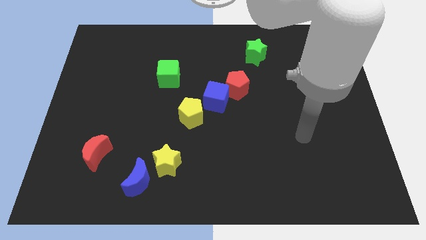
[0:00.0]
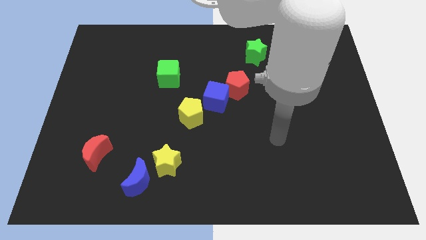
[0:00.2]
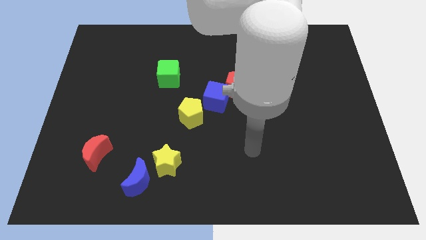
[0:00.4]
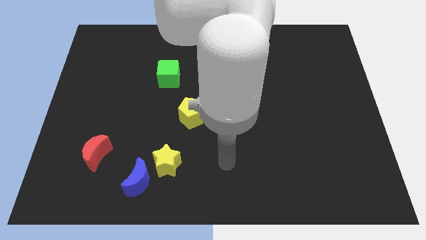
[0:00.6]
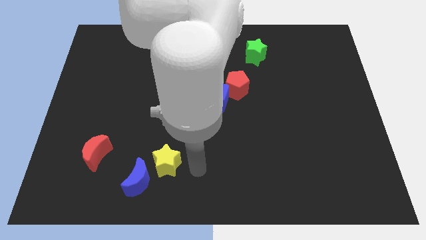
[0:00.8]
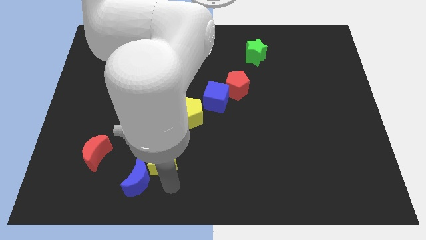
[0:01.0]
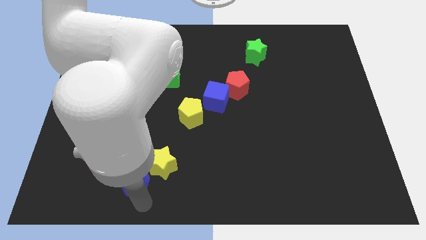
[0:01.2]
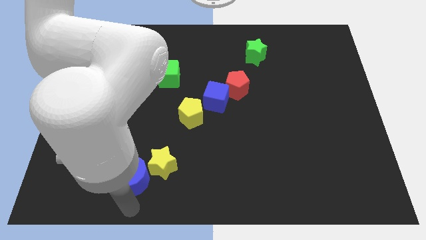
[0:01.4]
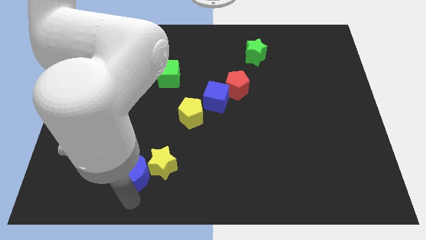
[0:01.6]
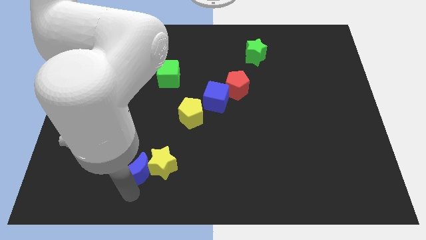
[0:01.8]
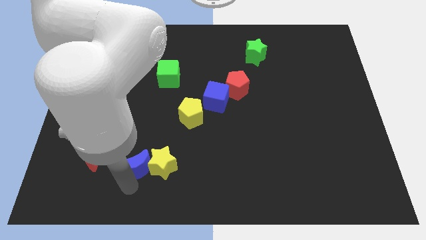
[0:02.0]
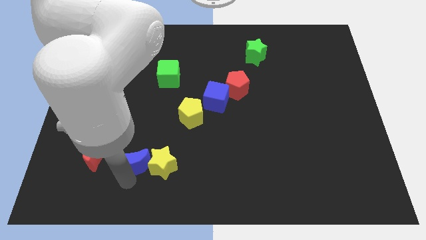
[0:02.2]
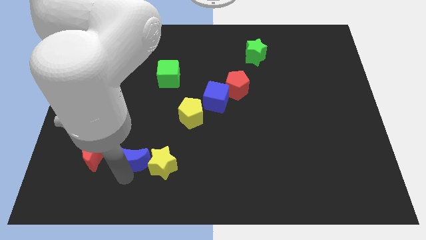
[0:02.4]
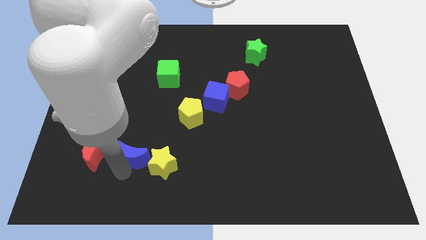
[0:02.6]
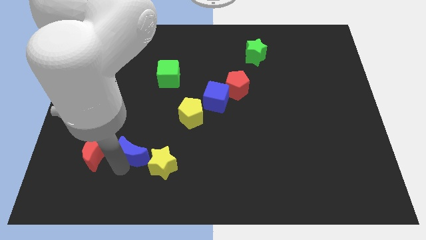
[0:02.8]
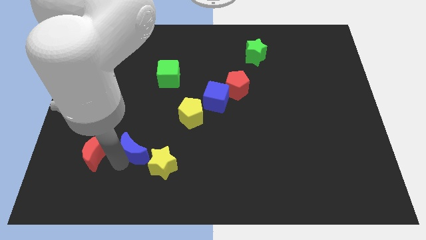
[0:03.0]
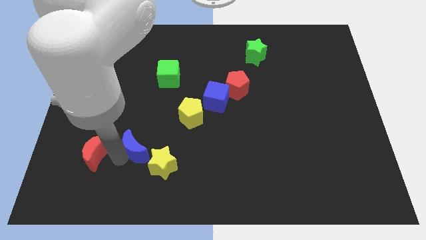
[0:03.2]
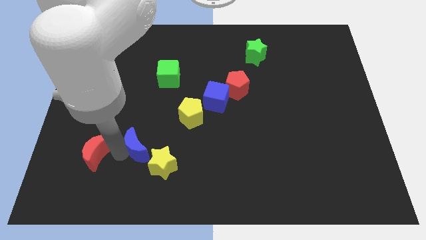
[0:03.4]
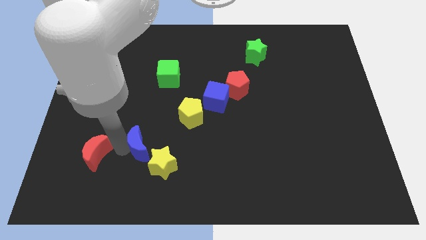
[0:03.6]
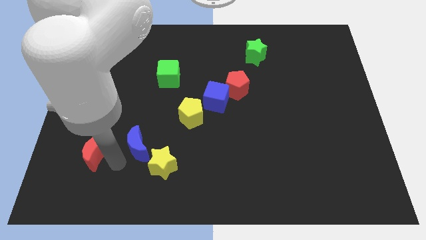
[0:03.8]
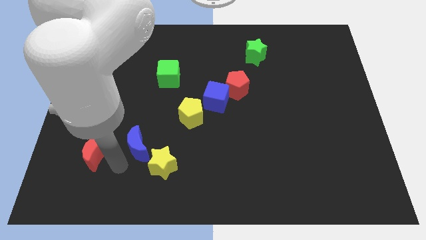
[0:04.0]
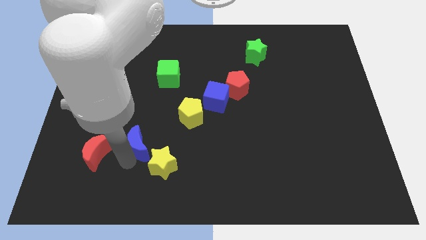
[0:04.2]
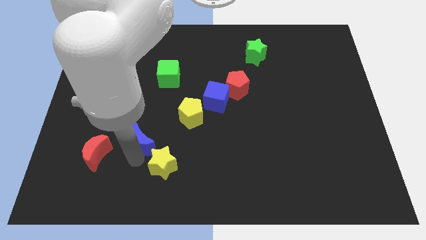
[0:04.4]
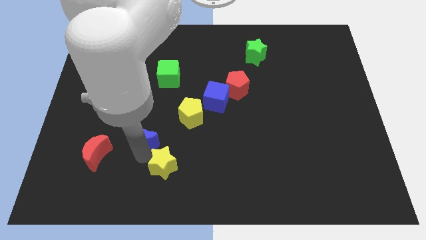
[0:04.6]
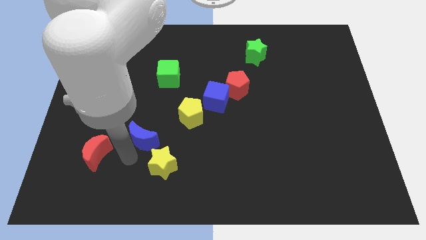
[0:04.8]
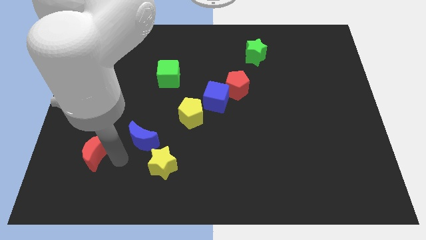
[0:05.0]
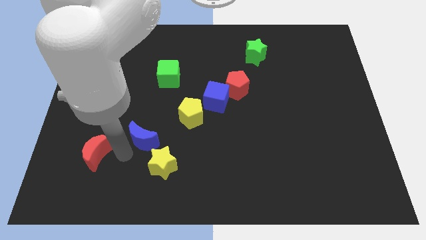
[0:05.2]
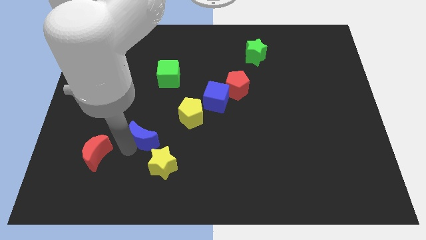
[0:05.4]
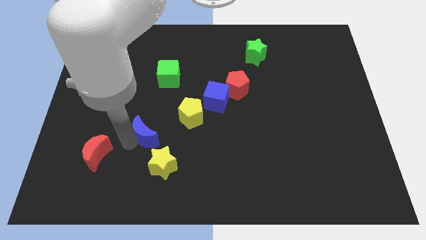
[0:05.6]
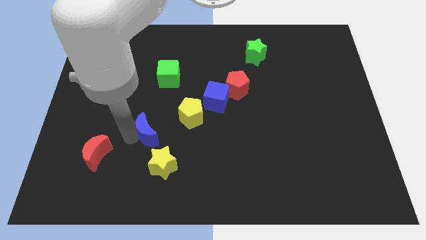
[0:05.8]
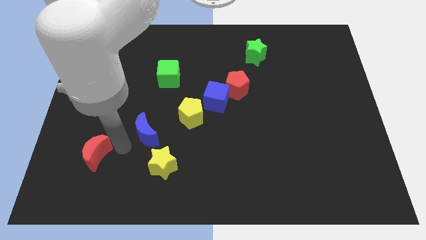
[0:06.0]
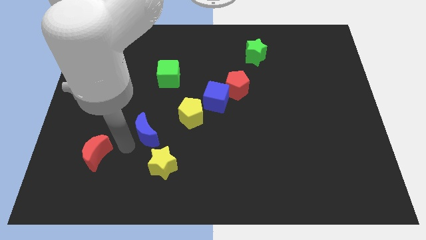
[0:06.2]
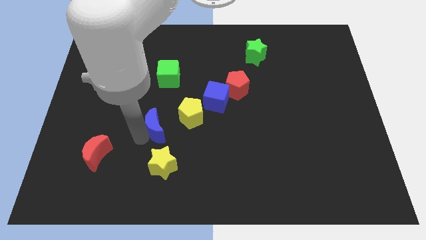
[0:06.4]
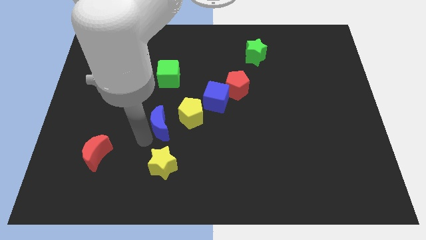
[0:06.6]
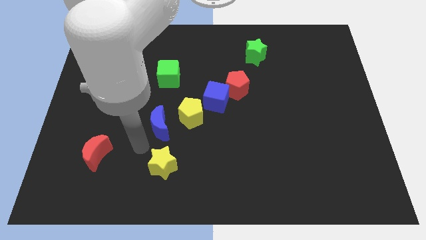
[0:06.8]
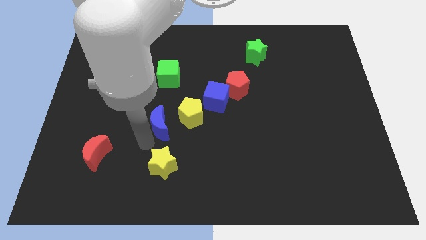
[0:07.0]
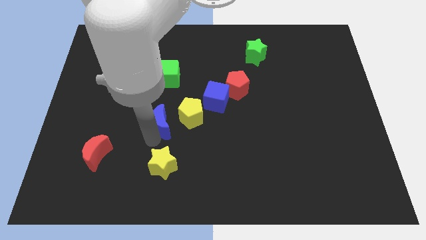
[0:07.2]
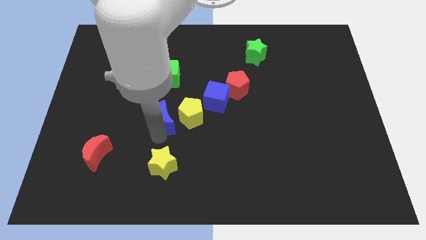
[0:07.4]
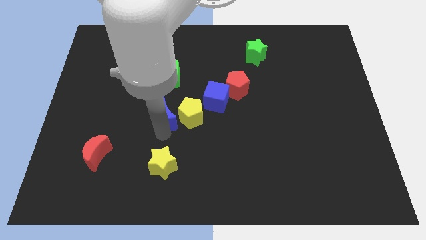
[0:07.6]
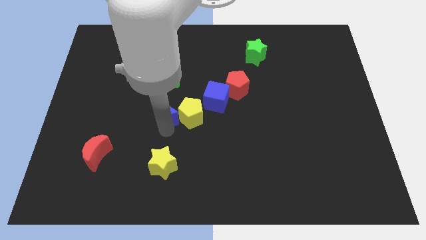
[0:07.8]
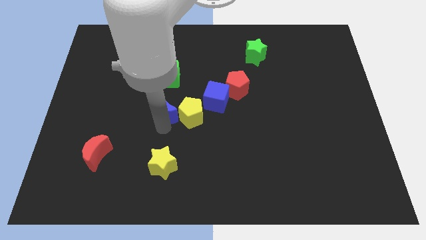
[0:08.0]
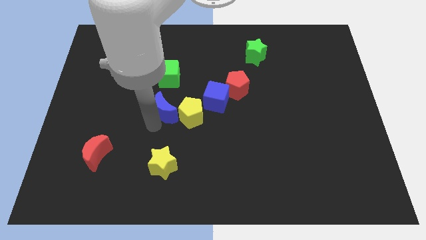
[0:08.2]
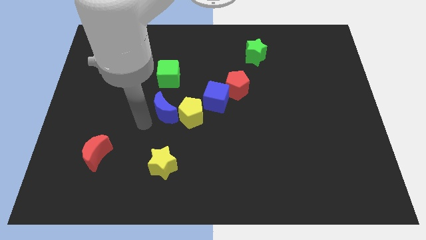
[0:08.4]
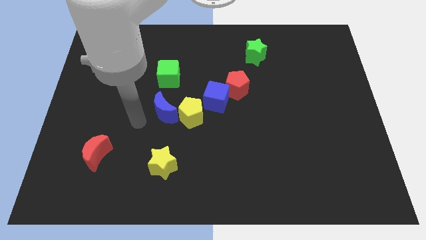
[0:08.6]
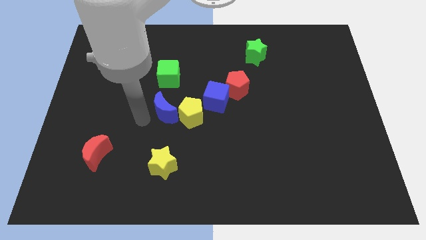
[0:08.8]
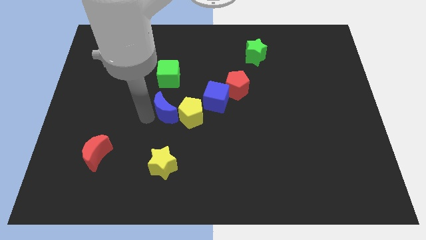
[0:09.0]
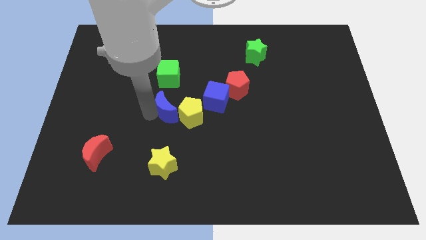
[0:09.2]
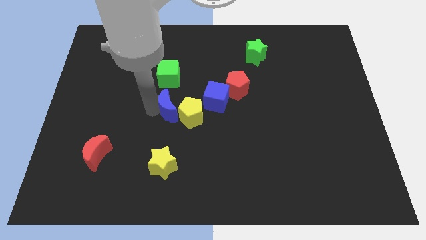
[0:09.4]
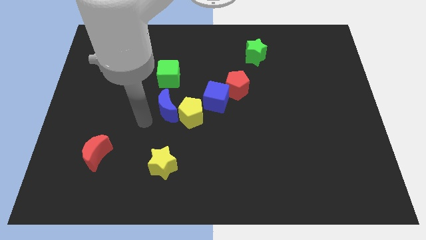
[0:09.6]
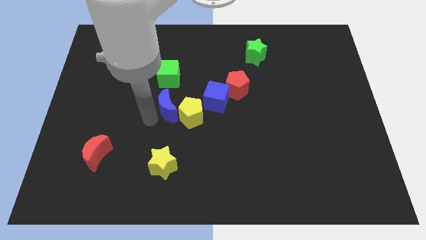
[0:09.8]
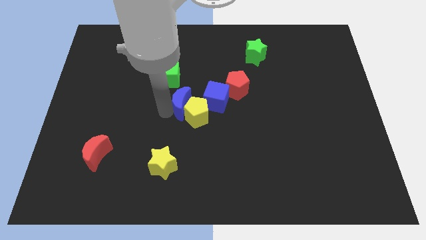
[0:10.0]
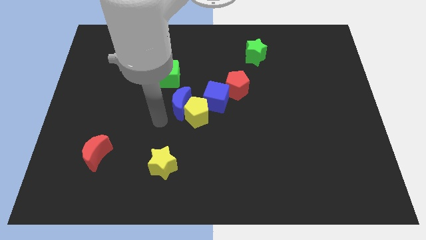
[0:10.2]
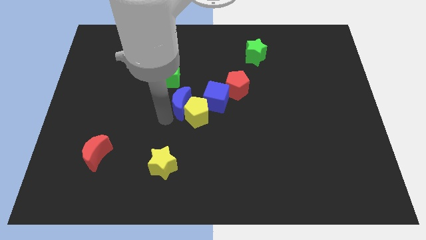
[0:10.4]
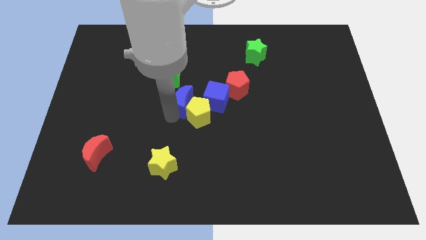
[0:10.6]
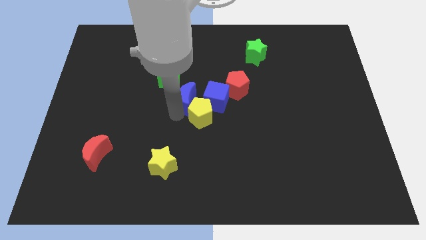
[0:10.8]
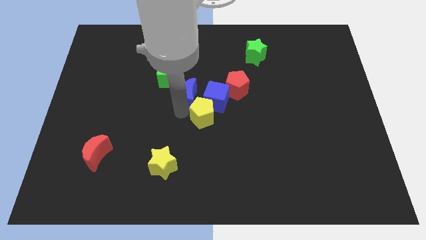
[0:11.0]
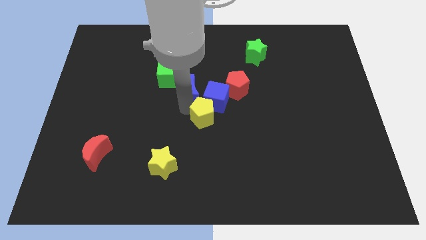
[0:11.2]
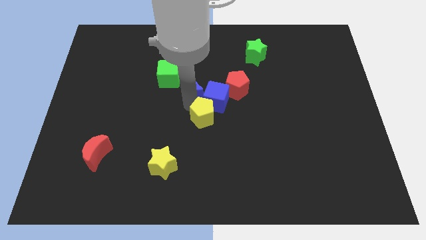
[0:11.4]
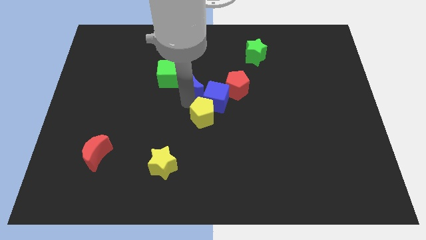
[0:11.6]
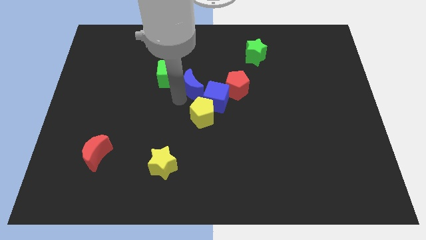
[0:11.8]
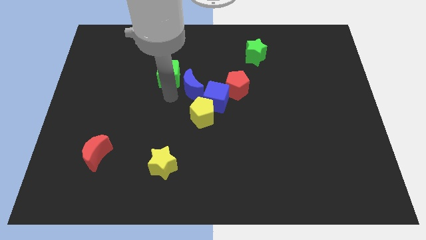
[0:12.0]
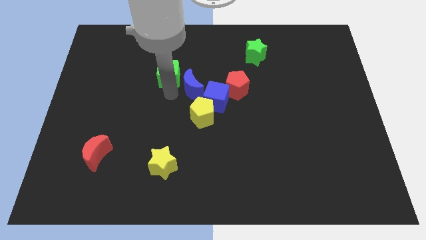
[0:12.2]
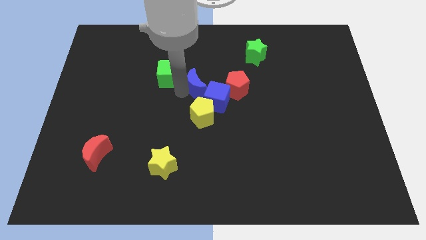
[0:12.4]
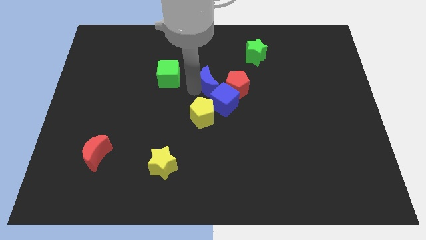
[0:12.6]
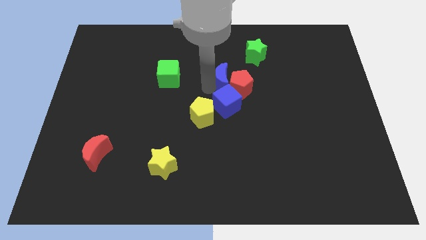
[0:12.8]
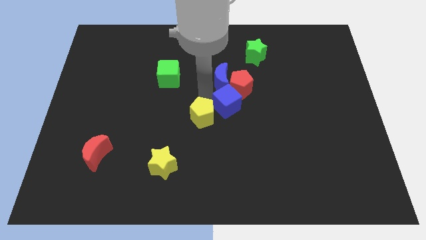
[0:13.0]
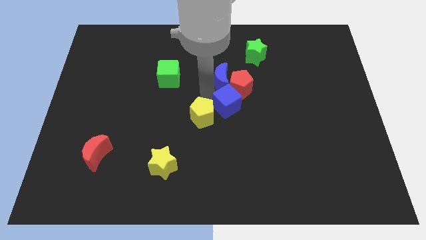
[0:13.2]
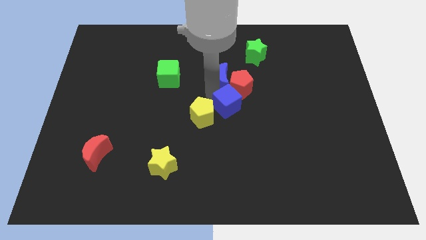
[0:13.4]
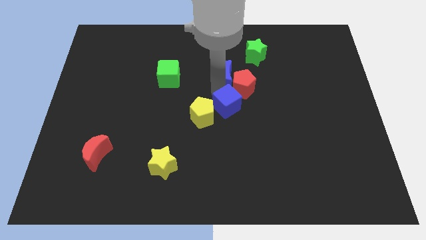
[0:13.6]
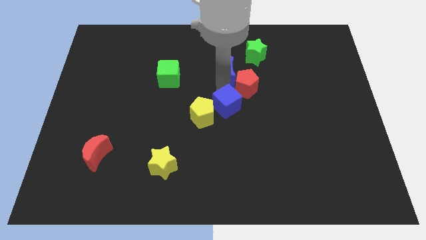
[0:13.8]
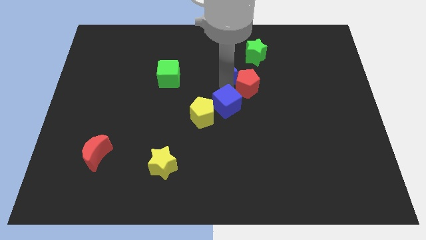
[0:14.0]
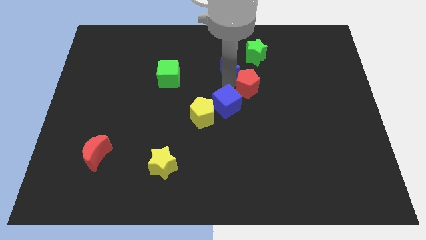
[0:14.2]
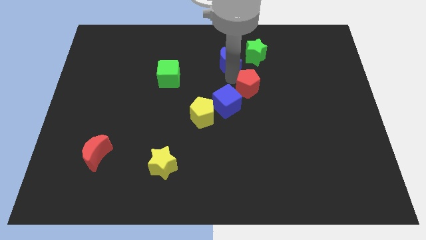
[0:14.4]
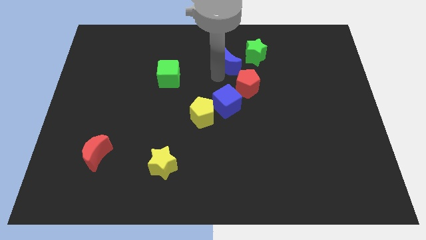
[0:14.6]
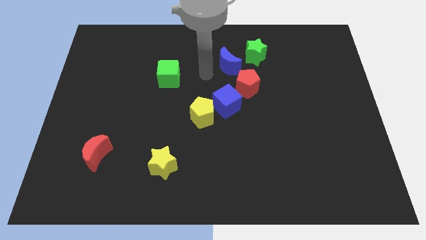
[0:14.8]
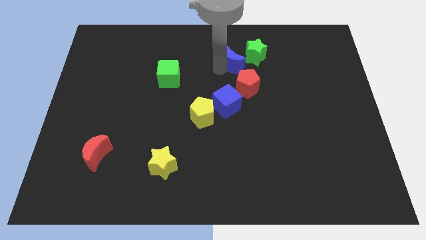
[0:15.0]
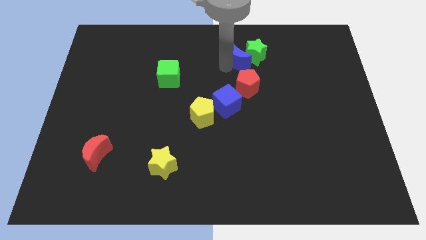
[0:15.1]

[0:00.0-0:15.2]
push the blue moon close to the green star
